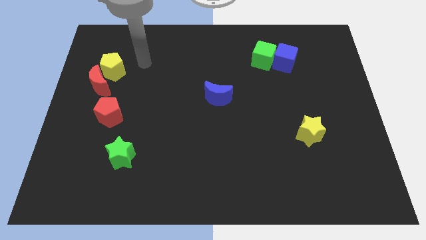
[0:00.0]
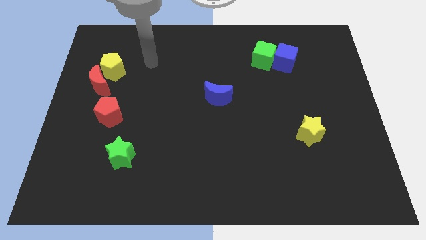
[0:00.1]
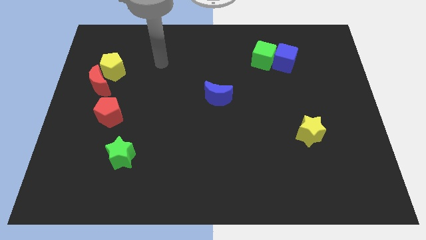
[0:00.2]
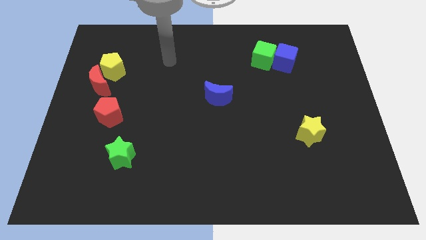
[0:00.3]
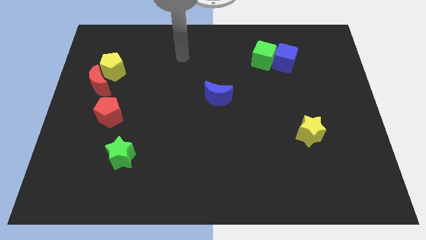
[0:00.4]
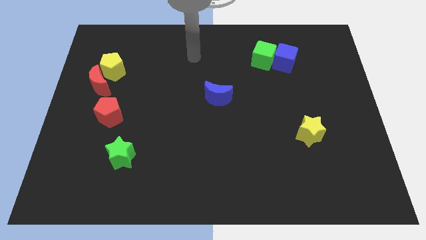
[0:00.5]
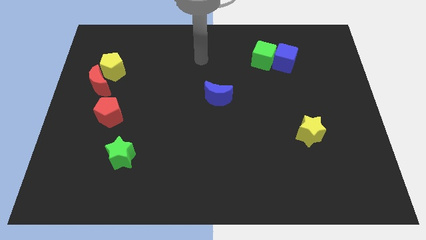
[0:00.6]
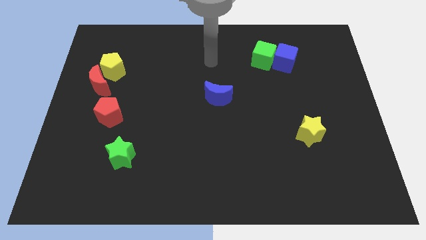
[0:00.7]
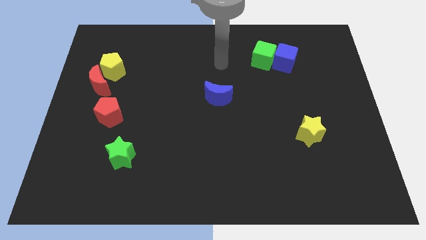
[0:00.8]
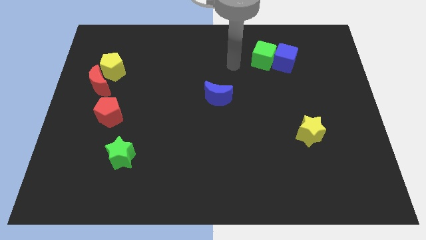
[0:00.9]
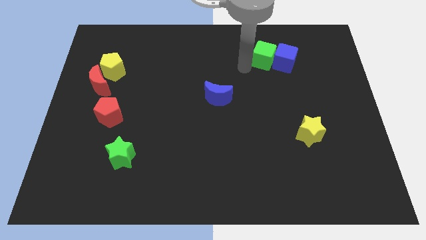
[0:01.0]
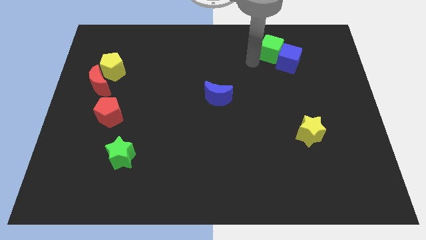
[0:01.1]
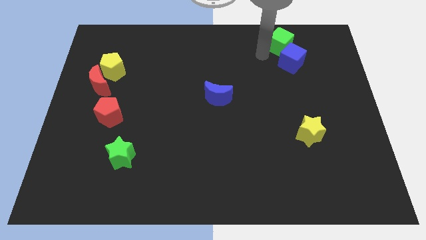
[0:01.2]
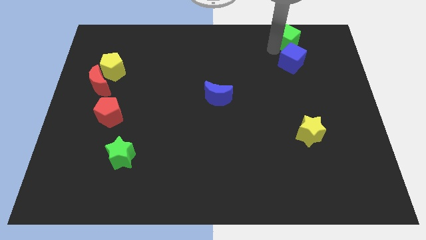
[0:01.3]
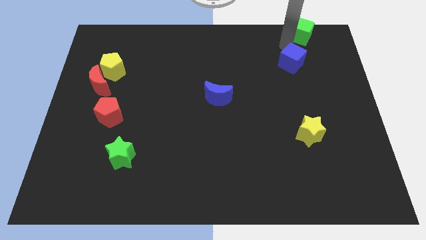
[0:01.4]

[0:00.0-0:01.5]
move the blue cube away from the green cube

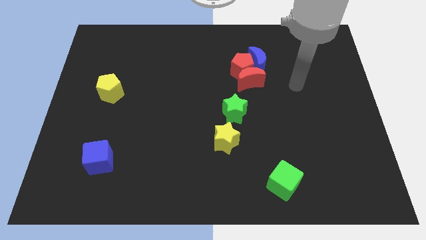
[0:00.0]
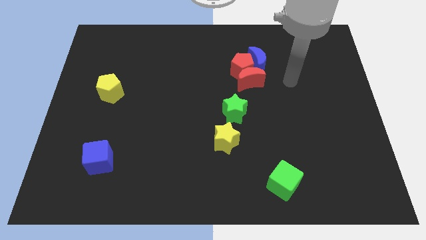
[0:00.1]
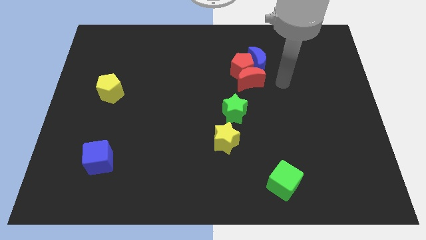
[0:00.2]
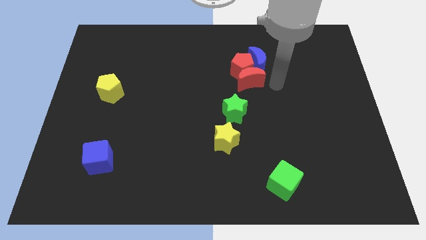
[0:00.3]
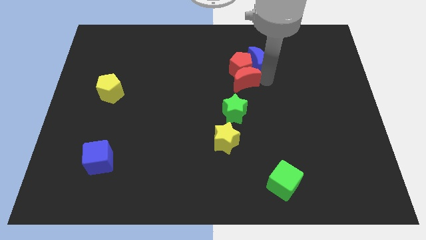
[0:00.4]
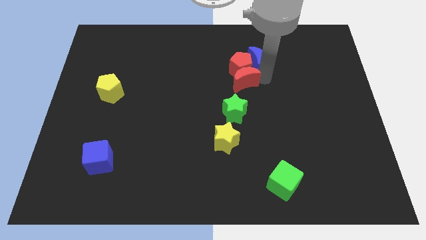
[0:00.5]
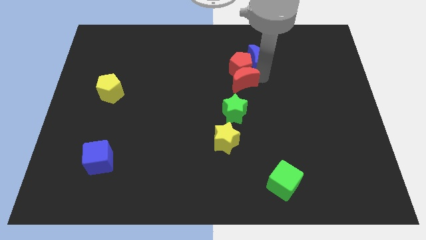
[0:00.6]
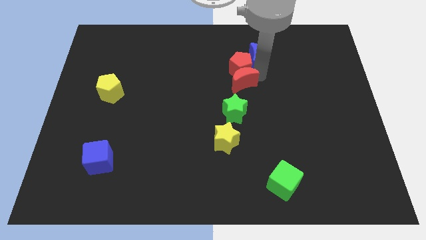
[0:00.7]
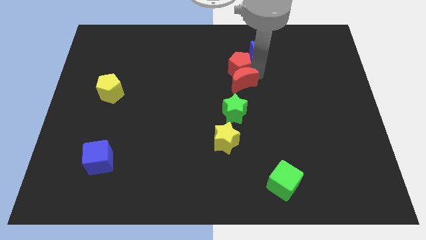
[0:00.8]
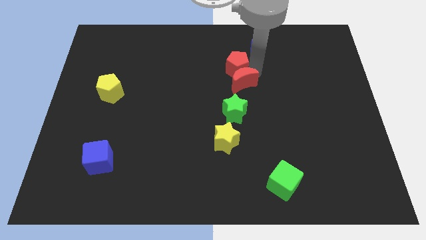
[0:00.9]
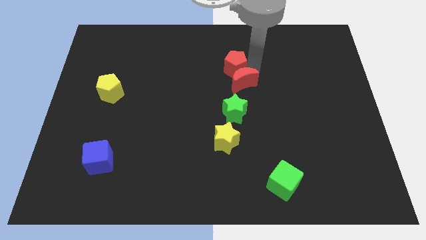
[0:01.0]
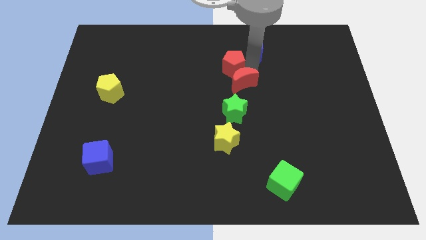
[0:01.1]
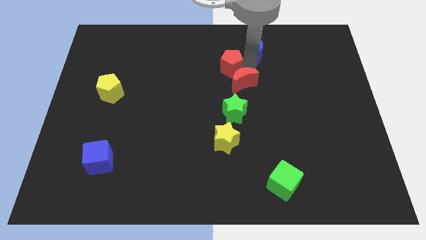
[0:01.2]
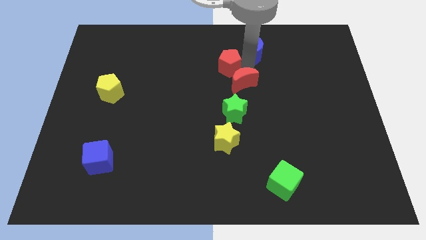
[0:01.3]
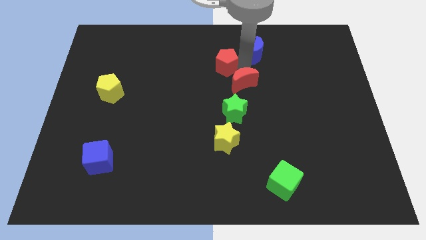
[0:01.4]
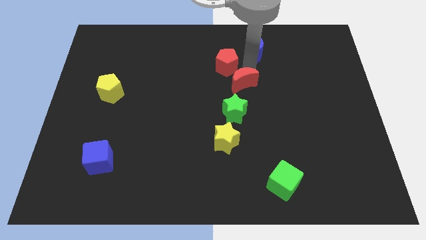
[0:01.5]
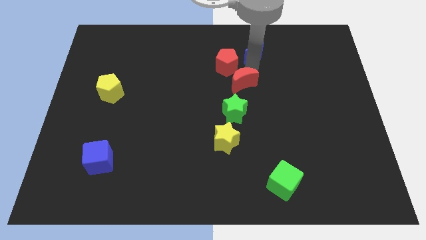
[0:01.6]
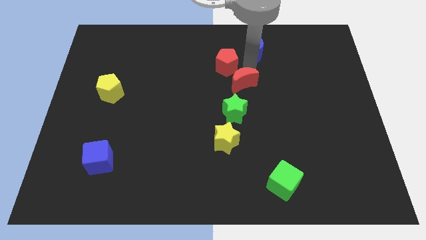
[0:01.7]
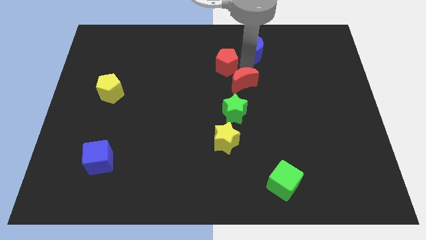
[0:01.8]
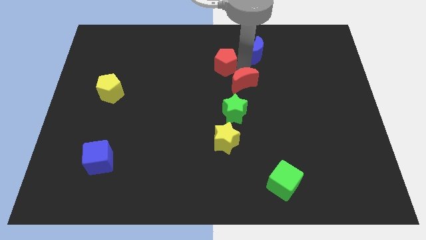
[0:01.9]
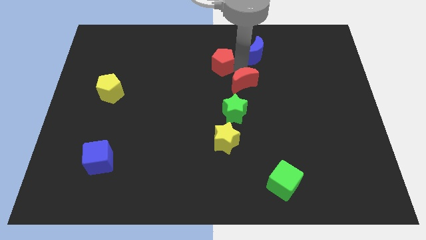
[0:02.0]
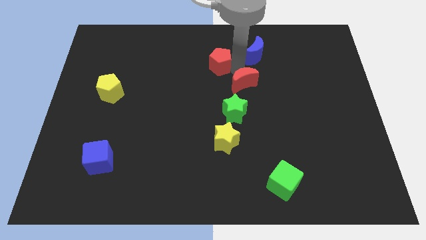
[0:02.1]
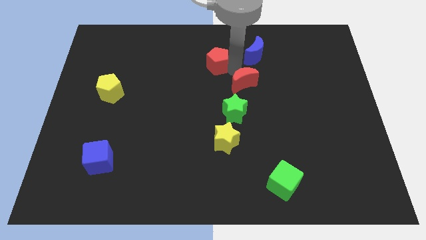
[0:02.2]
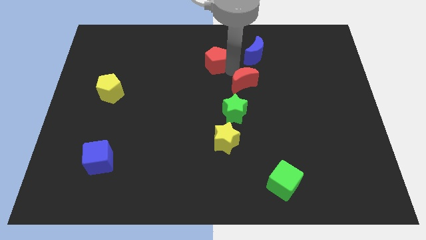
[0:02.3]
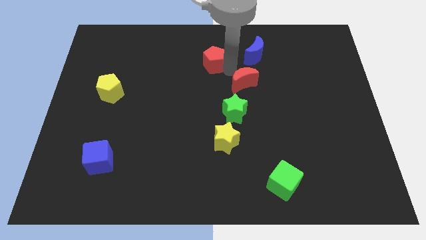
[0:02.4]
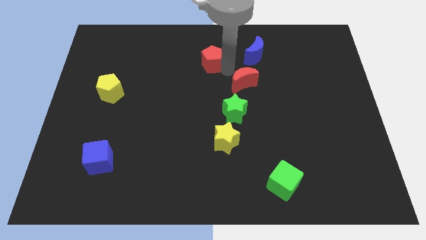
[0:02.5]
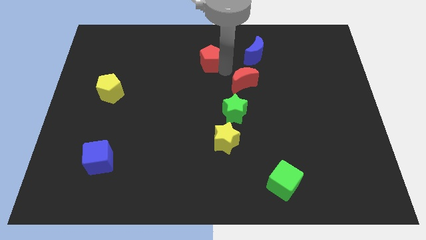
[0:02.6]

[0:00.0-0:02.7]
pull the red pentagon apart from the red moon and blue moon

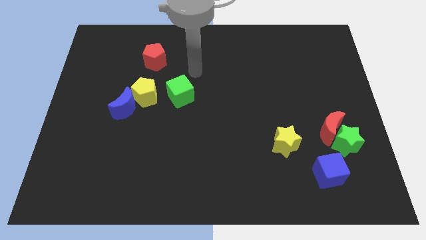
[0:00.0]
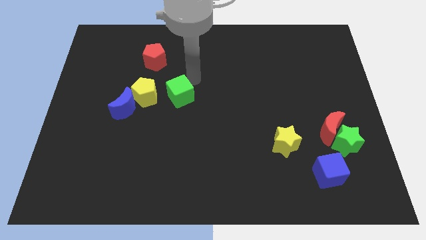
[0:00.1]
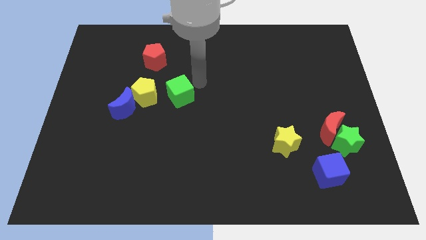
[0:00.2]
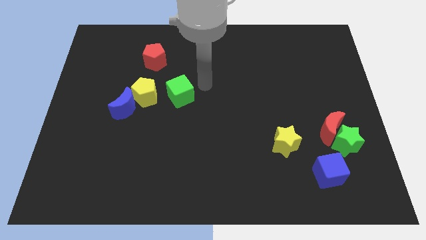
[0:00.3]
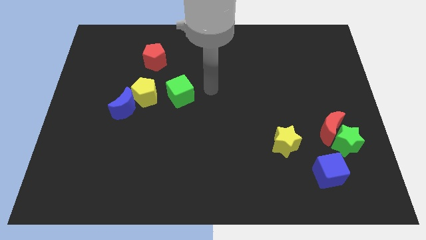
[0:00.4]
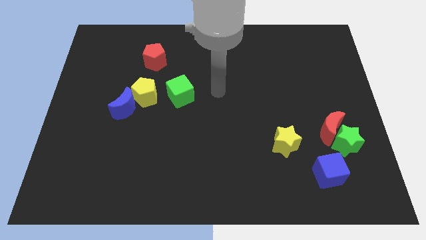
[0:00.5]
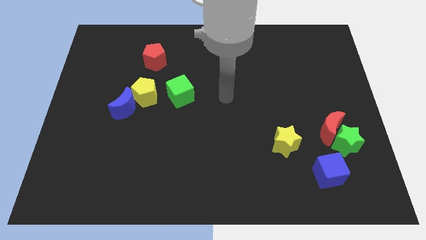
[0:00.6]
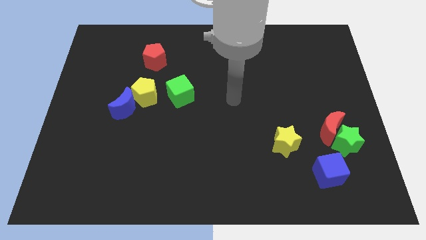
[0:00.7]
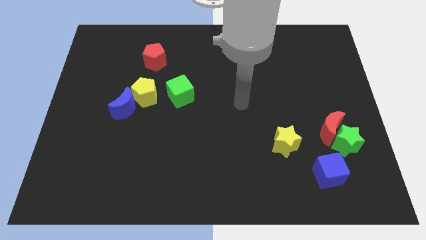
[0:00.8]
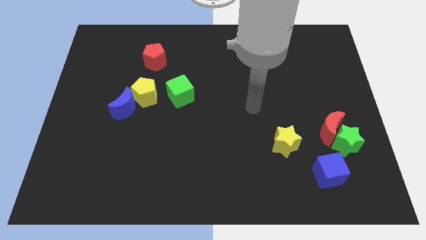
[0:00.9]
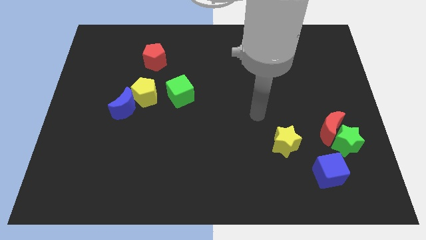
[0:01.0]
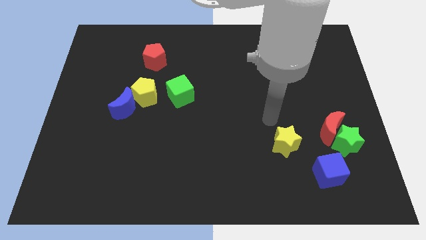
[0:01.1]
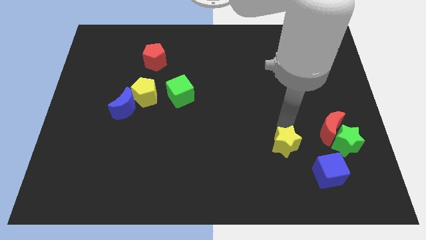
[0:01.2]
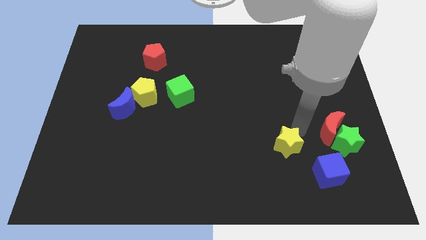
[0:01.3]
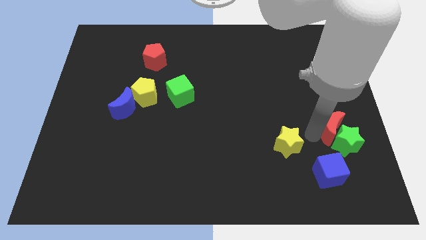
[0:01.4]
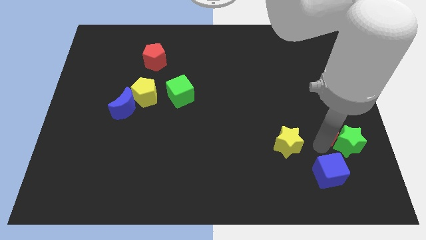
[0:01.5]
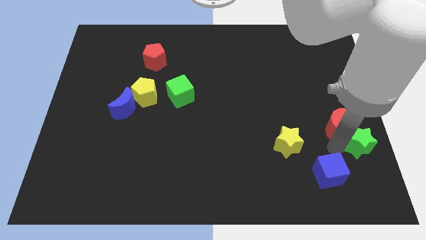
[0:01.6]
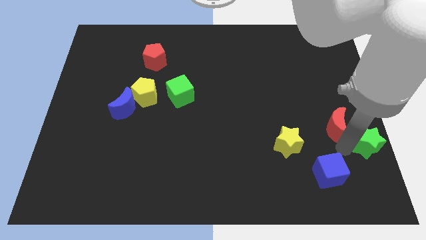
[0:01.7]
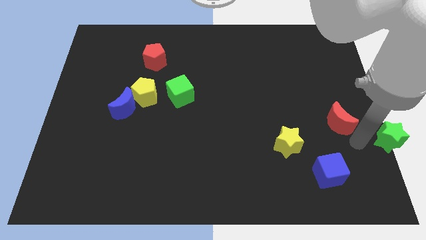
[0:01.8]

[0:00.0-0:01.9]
separate the red moon from the green star

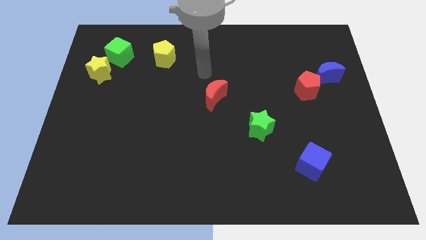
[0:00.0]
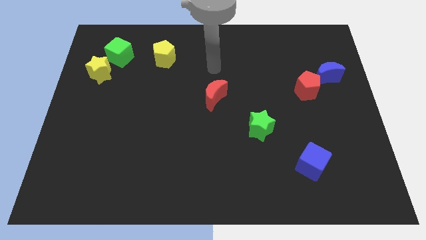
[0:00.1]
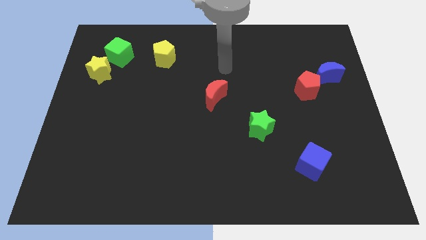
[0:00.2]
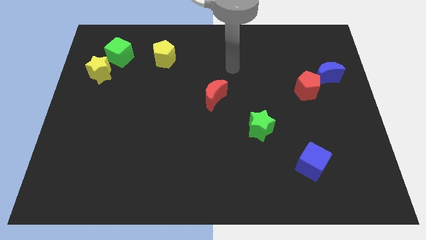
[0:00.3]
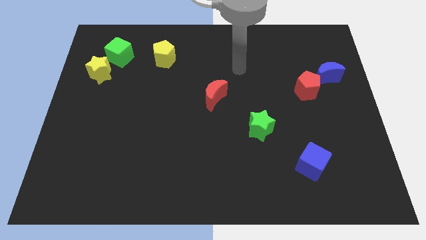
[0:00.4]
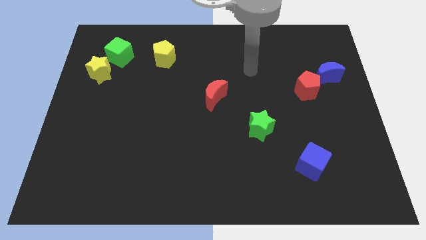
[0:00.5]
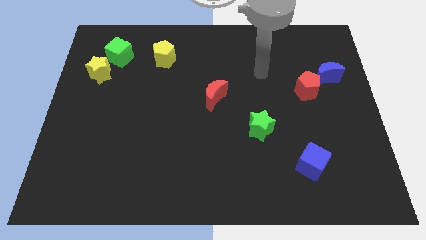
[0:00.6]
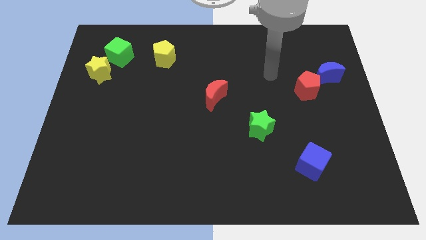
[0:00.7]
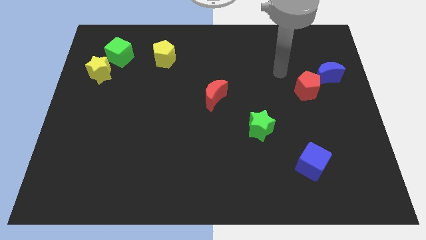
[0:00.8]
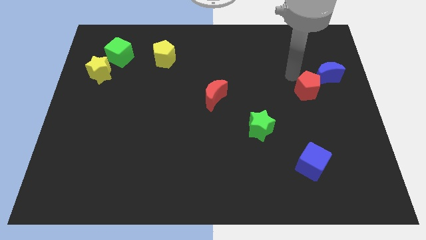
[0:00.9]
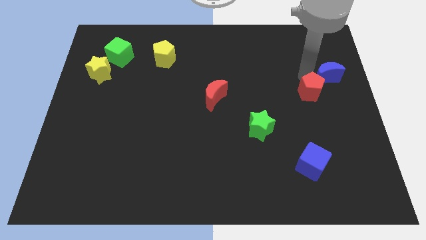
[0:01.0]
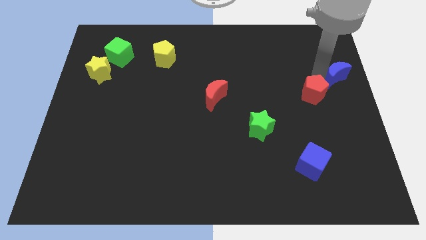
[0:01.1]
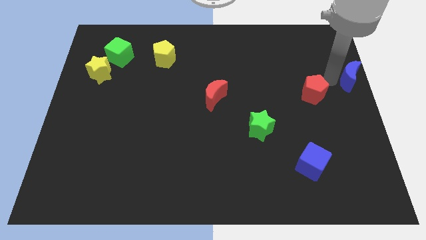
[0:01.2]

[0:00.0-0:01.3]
pull the red pentagon apart from the blue moon

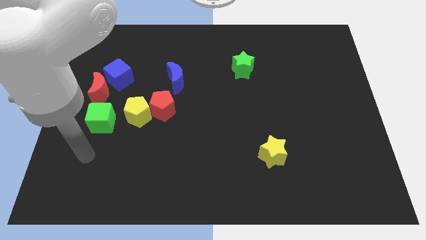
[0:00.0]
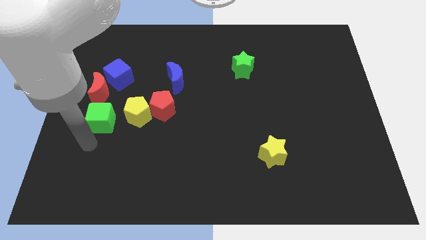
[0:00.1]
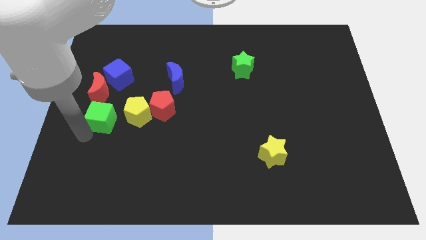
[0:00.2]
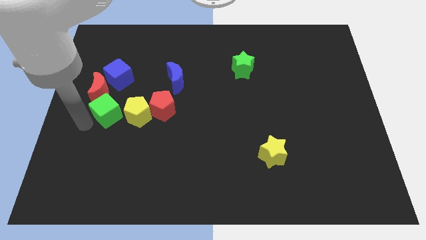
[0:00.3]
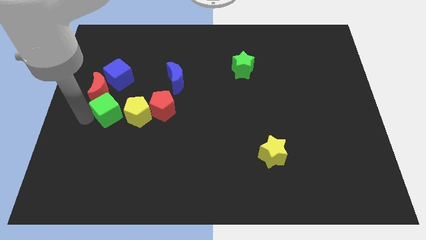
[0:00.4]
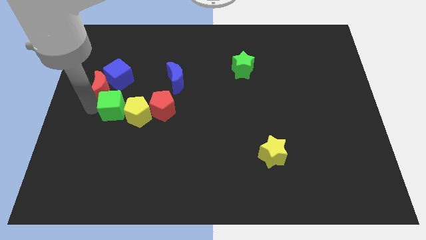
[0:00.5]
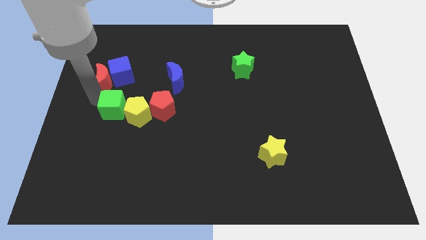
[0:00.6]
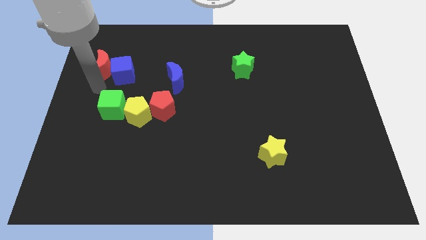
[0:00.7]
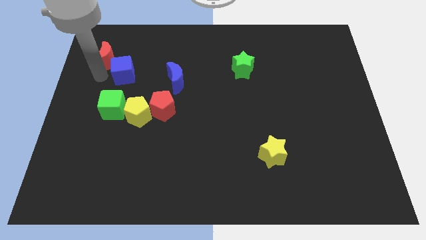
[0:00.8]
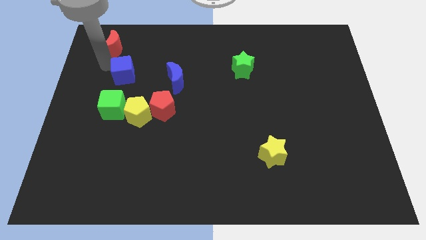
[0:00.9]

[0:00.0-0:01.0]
separate the blue cube from the red moon

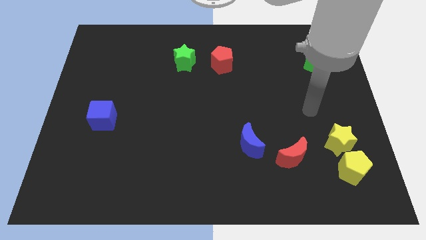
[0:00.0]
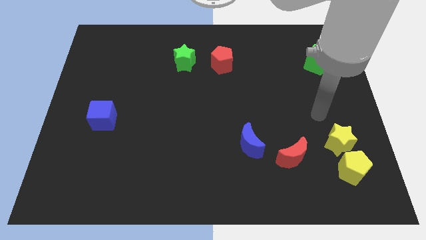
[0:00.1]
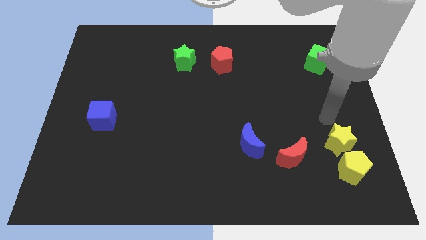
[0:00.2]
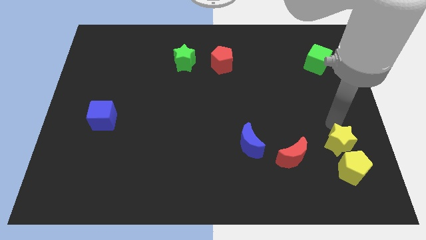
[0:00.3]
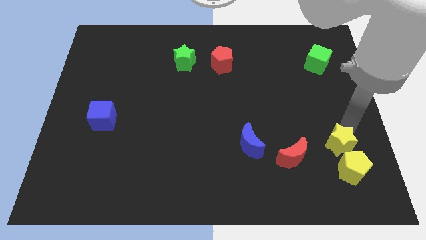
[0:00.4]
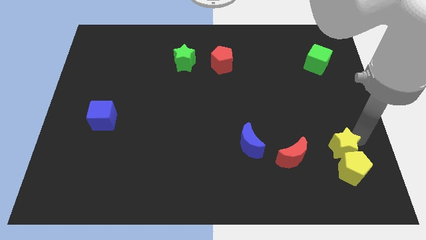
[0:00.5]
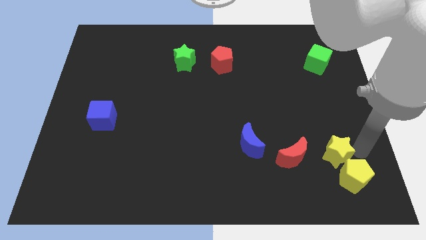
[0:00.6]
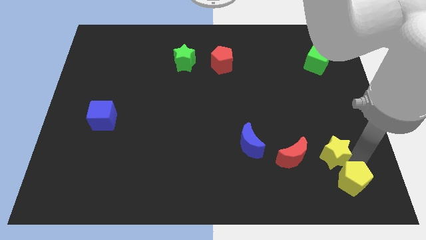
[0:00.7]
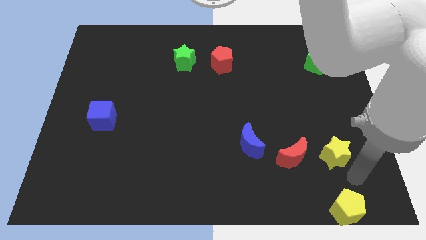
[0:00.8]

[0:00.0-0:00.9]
separate the yellow star from the yellow pentagon

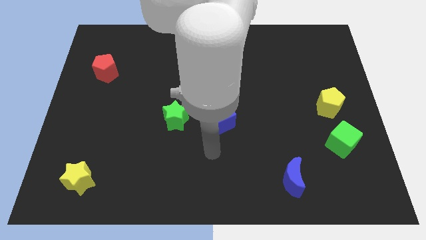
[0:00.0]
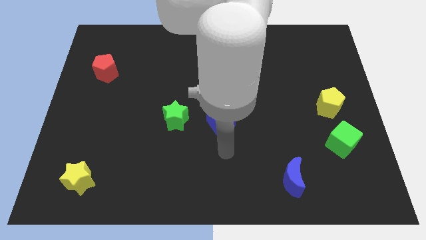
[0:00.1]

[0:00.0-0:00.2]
separate the green cube from the yellow pentagon
